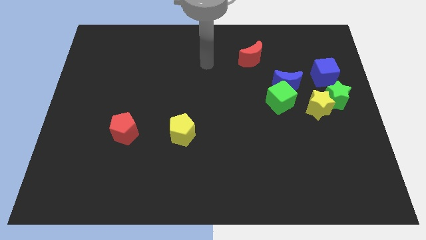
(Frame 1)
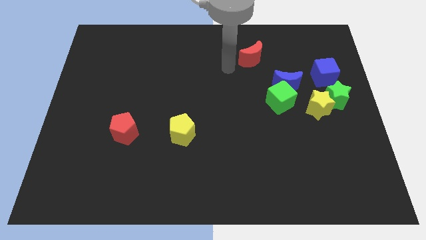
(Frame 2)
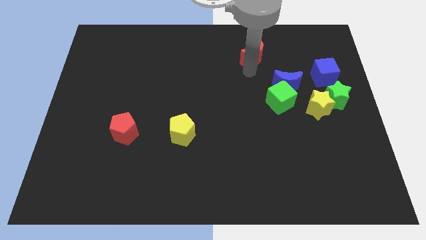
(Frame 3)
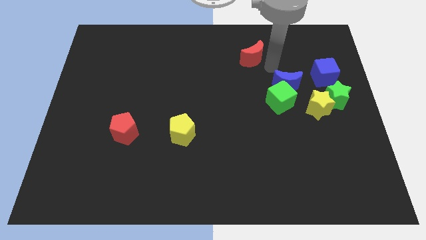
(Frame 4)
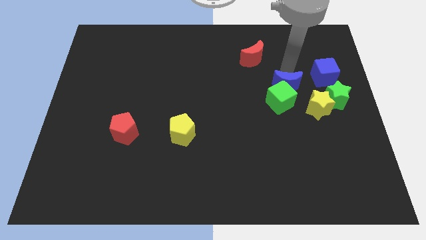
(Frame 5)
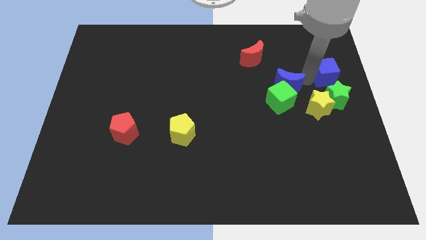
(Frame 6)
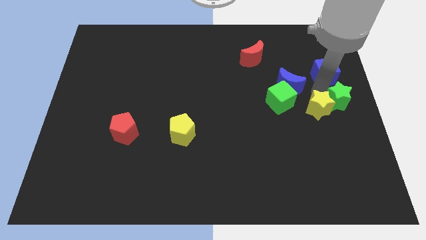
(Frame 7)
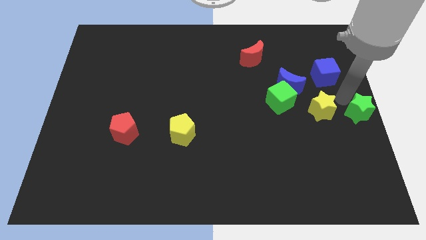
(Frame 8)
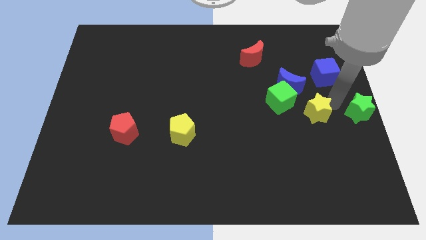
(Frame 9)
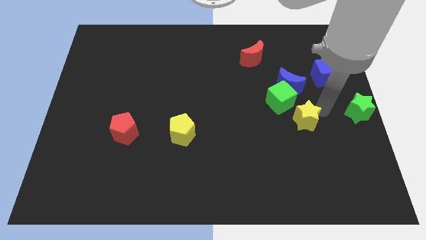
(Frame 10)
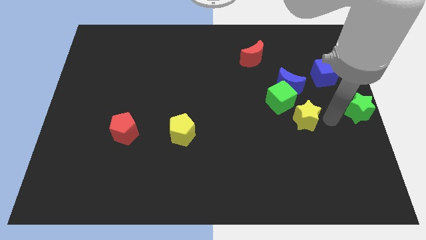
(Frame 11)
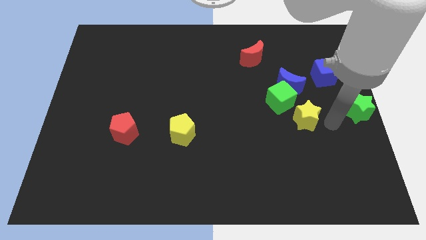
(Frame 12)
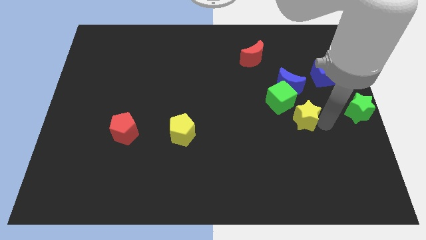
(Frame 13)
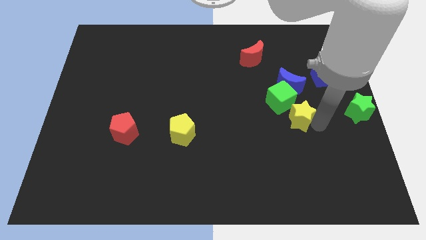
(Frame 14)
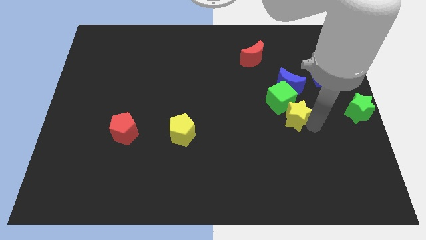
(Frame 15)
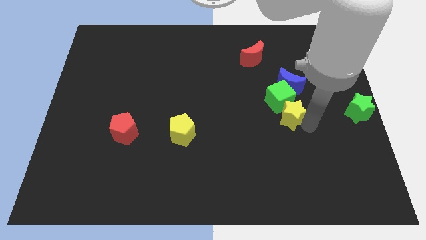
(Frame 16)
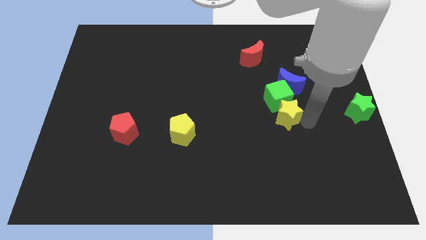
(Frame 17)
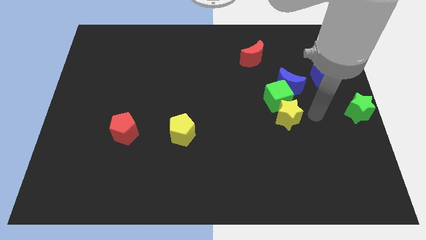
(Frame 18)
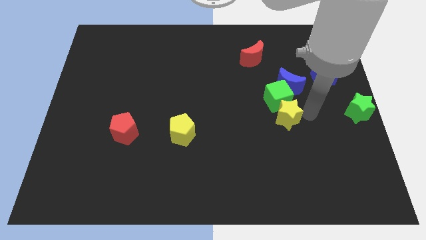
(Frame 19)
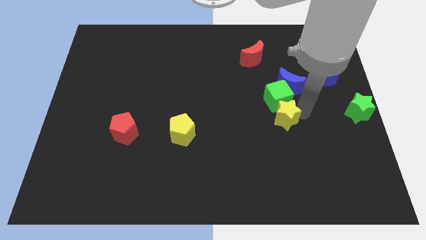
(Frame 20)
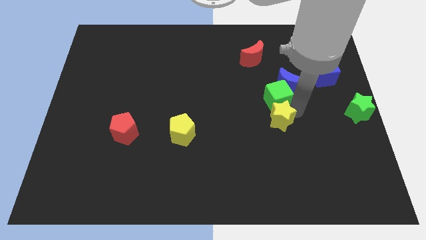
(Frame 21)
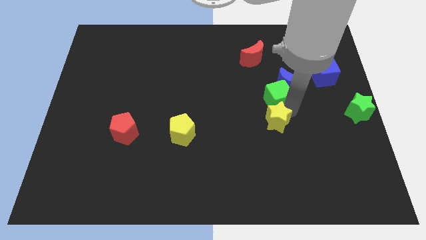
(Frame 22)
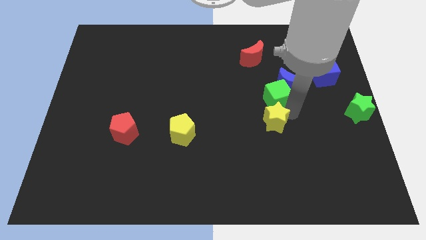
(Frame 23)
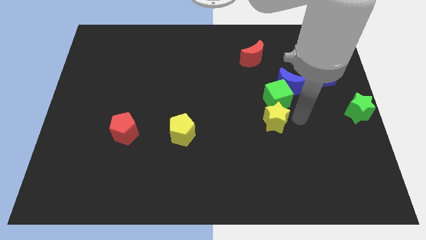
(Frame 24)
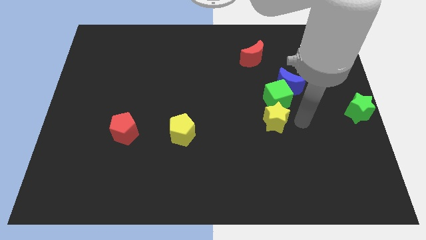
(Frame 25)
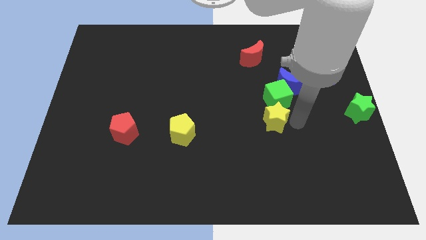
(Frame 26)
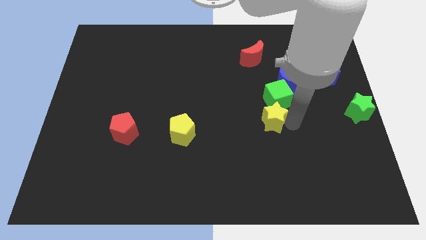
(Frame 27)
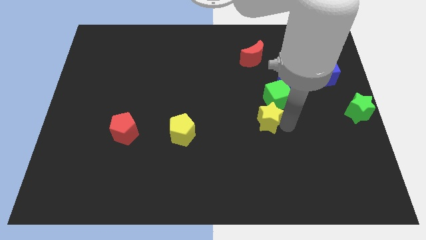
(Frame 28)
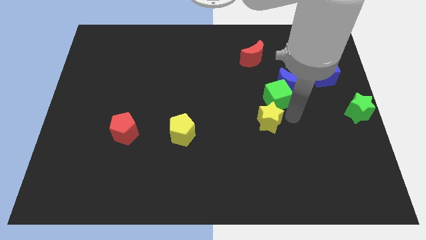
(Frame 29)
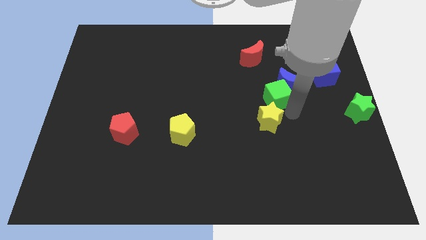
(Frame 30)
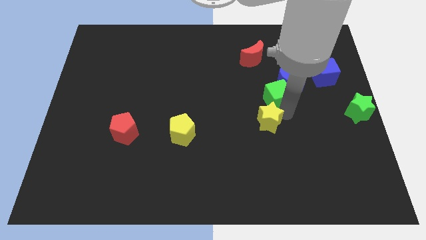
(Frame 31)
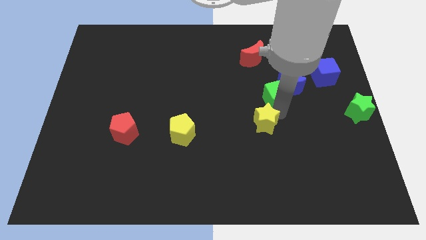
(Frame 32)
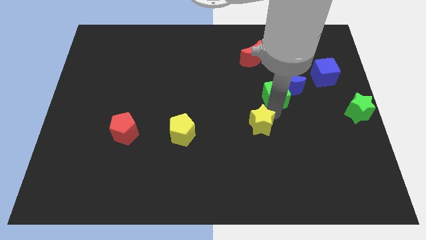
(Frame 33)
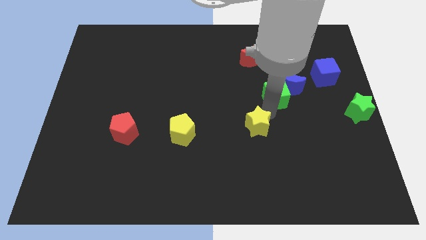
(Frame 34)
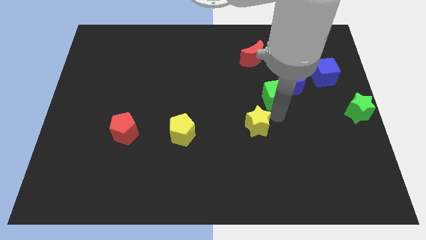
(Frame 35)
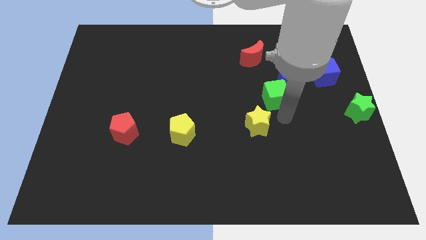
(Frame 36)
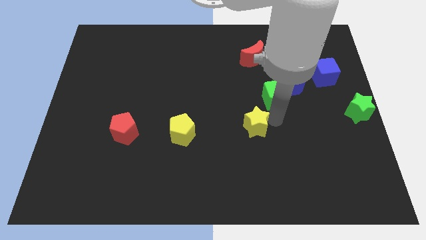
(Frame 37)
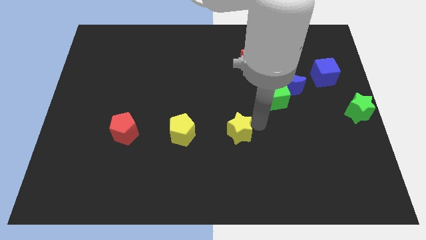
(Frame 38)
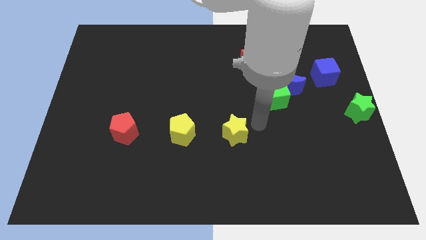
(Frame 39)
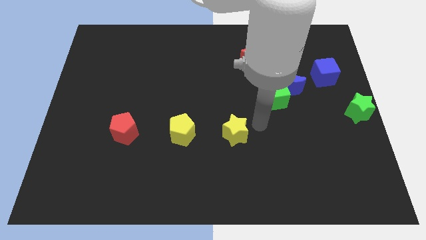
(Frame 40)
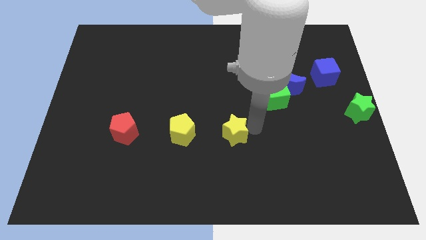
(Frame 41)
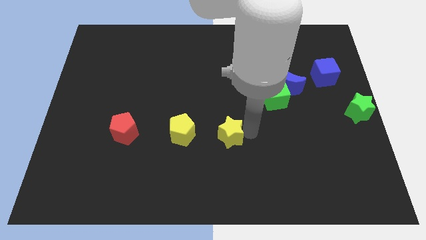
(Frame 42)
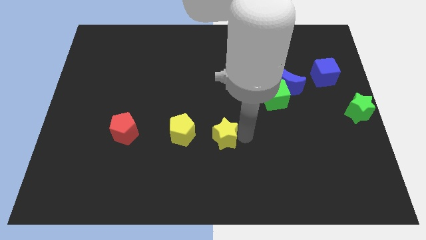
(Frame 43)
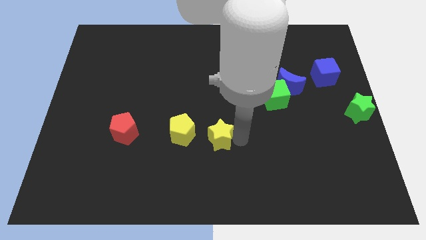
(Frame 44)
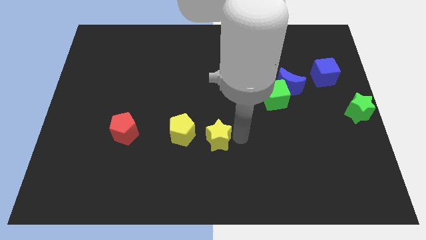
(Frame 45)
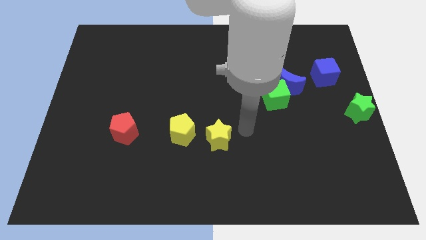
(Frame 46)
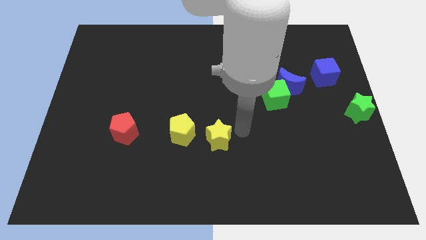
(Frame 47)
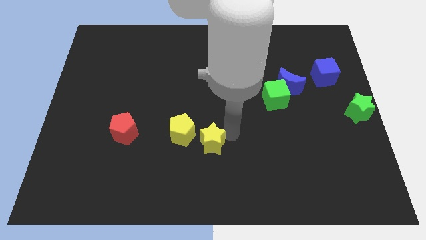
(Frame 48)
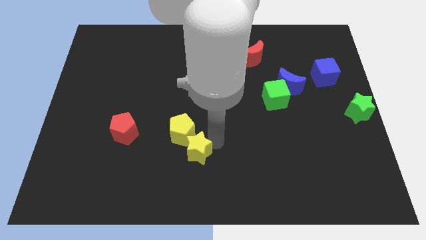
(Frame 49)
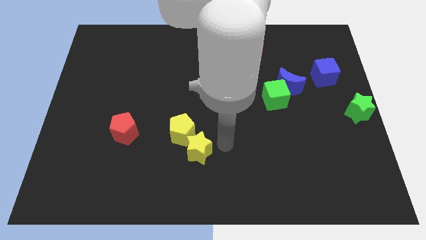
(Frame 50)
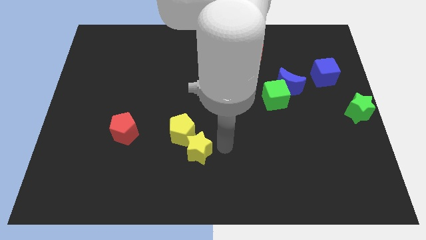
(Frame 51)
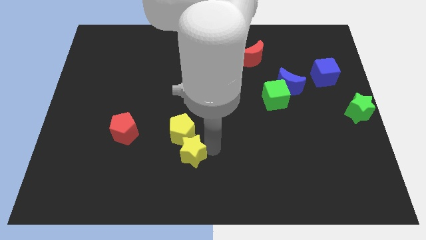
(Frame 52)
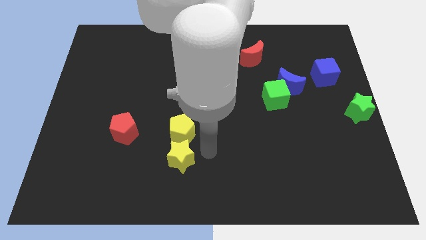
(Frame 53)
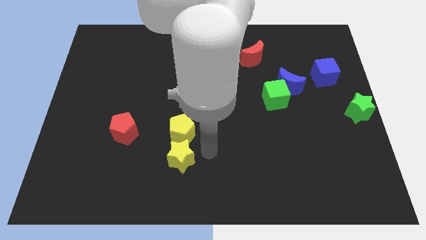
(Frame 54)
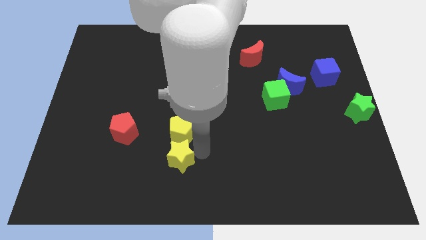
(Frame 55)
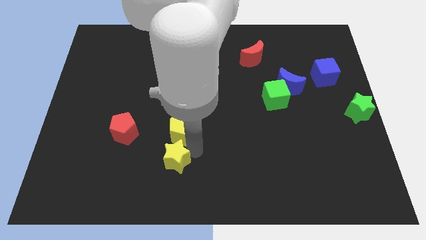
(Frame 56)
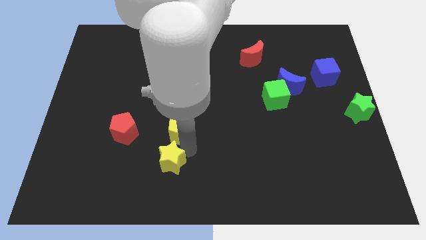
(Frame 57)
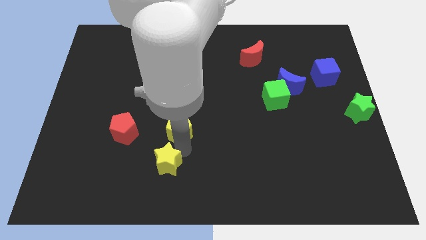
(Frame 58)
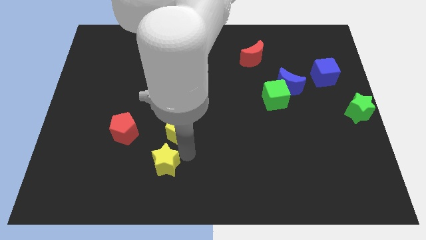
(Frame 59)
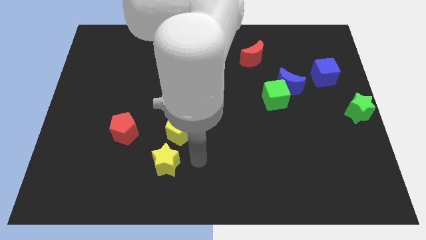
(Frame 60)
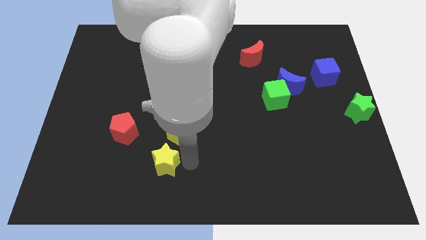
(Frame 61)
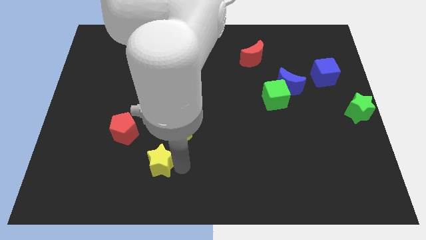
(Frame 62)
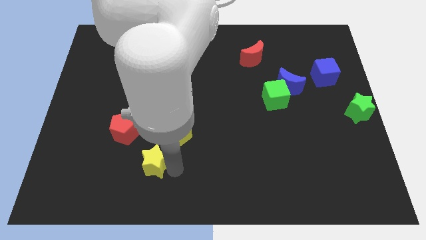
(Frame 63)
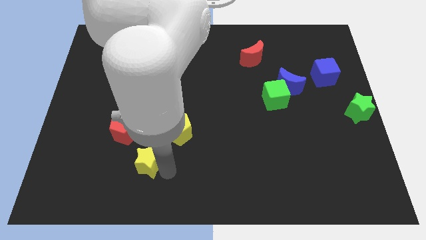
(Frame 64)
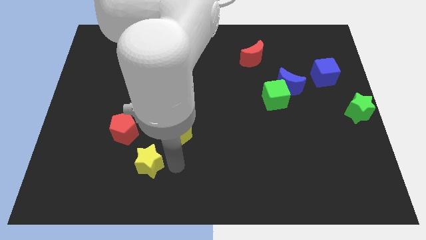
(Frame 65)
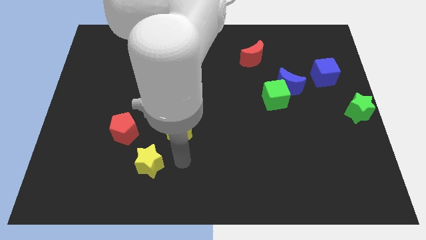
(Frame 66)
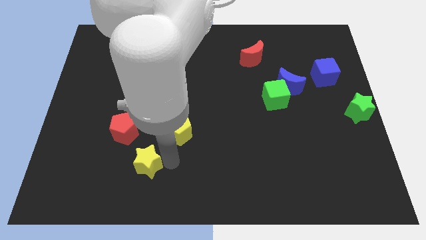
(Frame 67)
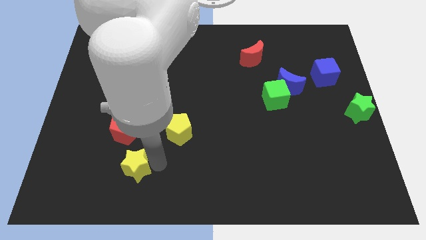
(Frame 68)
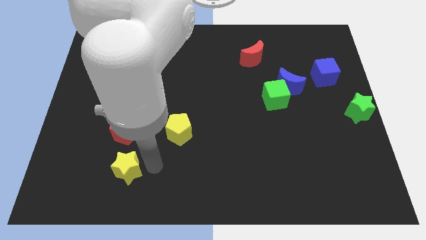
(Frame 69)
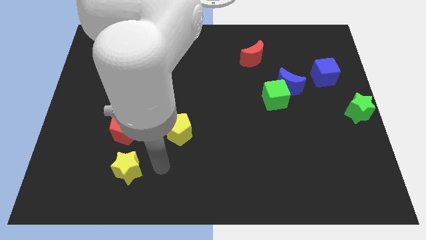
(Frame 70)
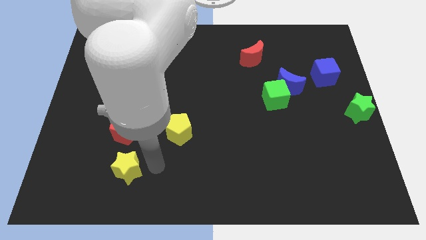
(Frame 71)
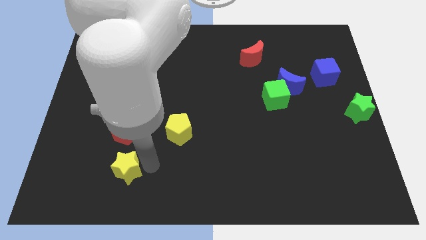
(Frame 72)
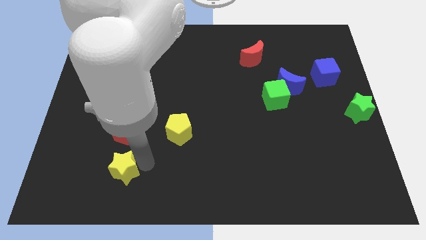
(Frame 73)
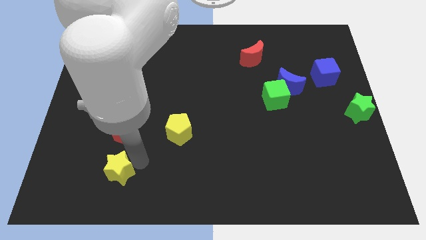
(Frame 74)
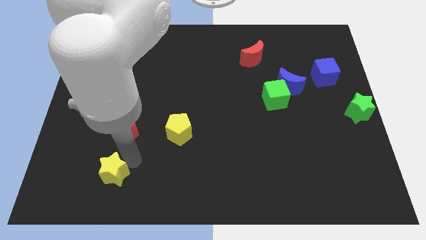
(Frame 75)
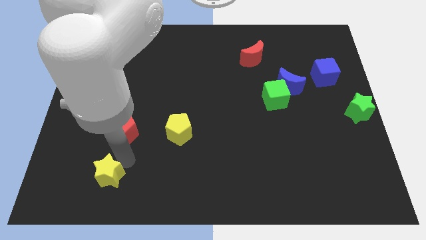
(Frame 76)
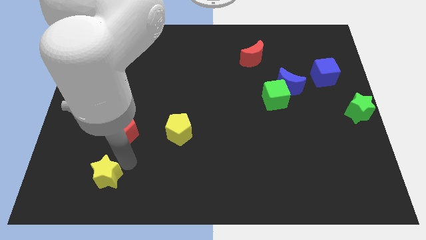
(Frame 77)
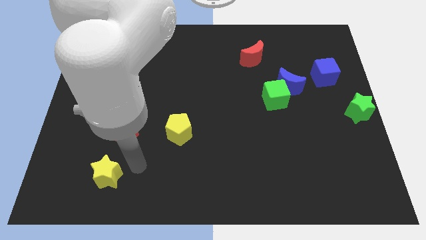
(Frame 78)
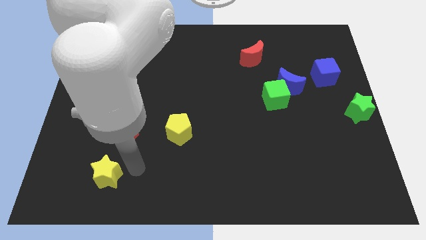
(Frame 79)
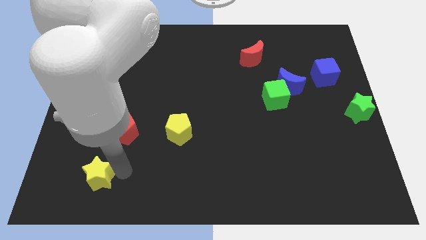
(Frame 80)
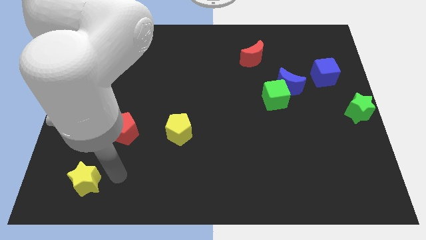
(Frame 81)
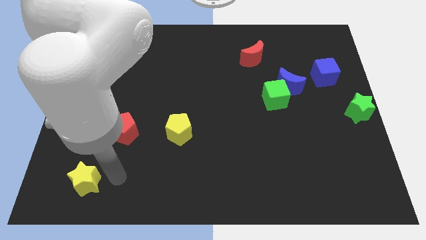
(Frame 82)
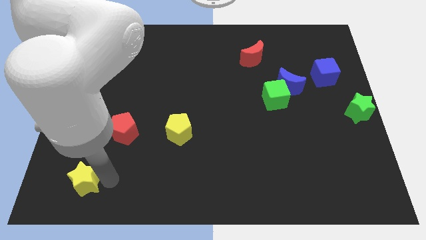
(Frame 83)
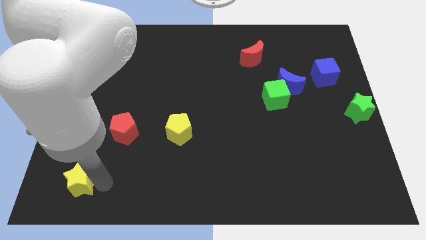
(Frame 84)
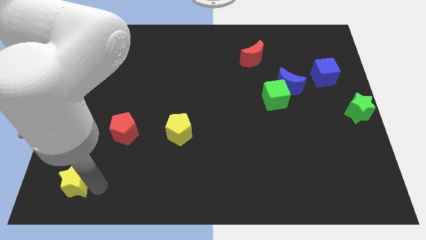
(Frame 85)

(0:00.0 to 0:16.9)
move the yellow star to the lower left corner
